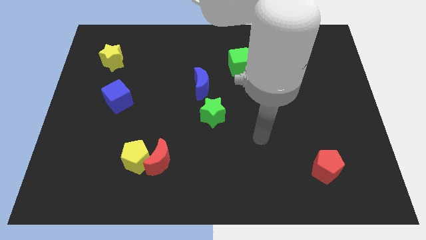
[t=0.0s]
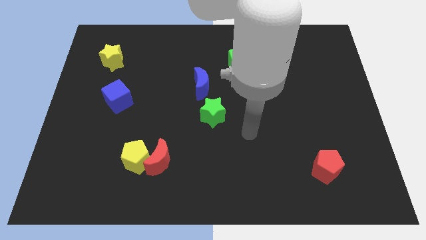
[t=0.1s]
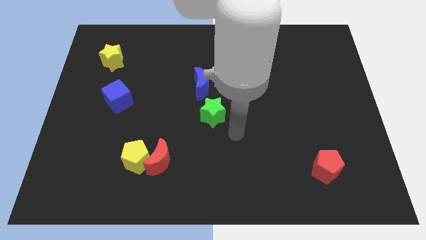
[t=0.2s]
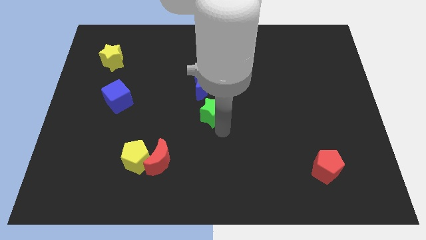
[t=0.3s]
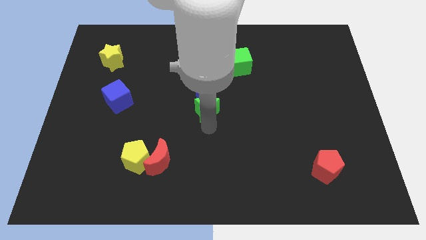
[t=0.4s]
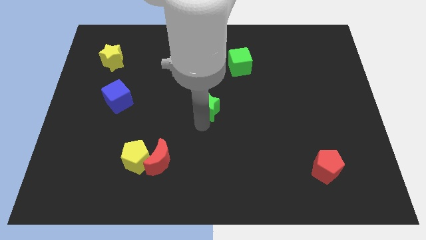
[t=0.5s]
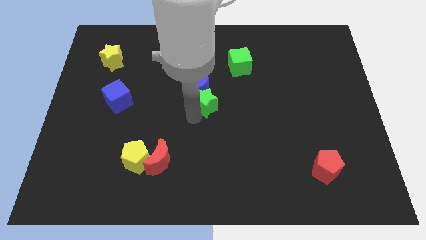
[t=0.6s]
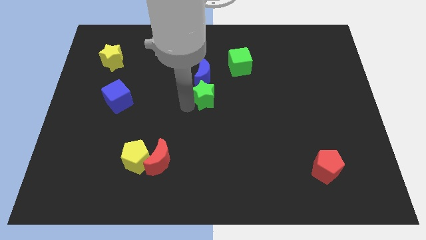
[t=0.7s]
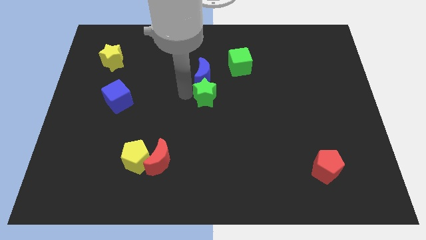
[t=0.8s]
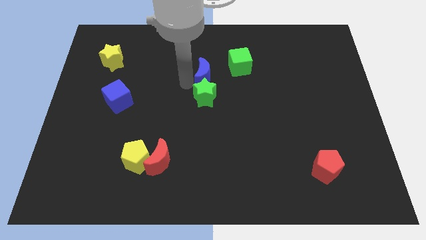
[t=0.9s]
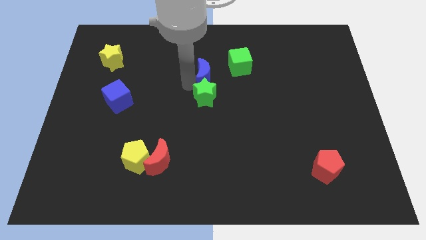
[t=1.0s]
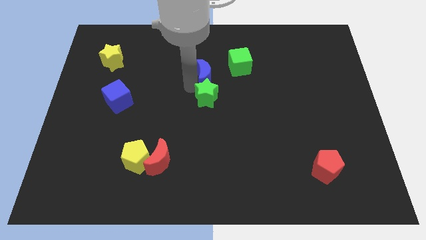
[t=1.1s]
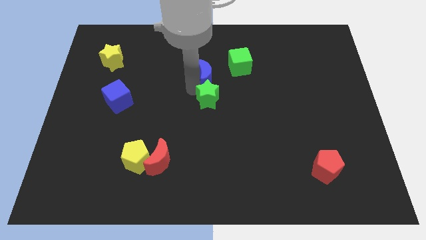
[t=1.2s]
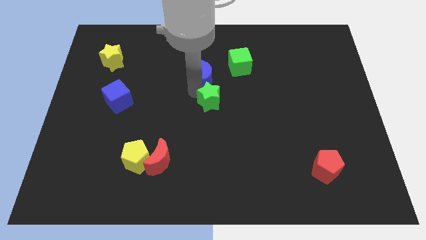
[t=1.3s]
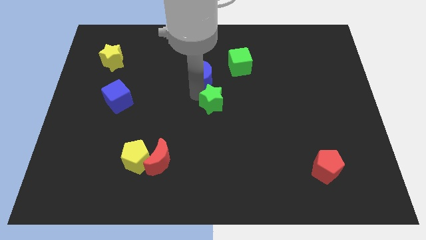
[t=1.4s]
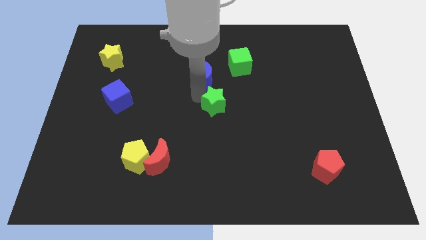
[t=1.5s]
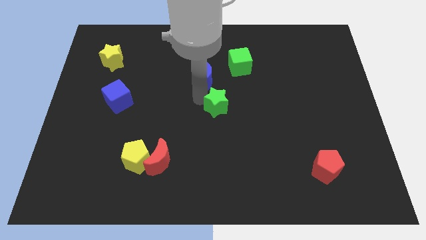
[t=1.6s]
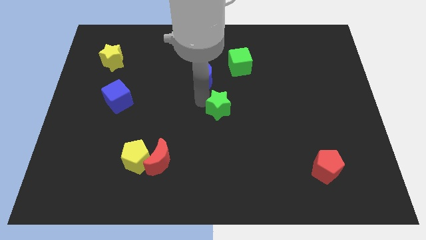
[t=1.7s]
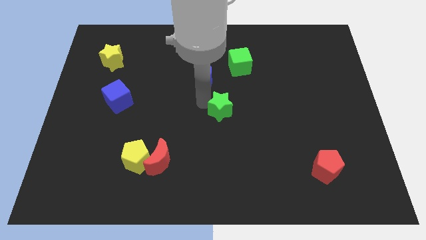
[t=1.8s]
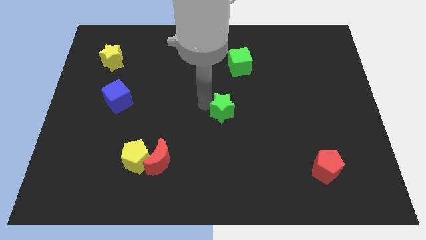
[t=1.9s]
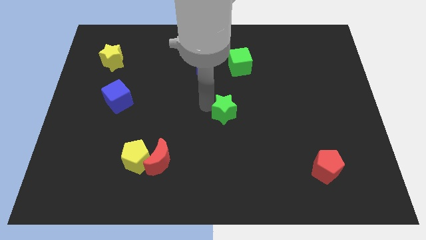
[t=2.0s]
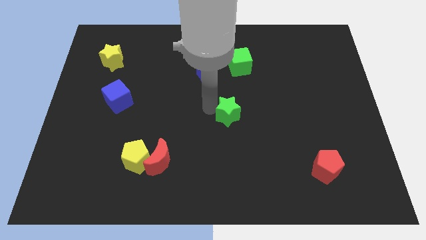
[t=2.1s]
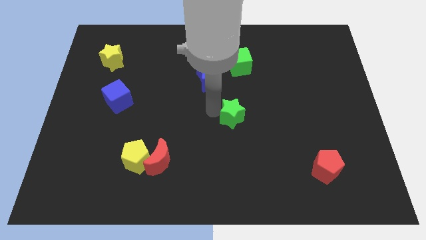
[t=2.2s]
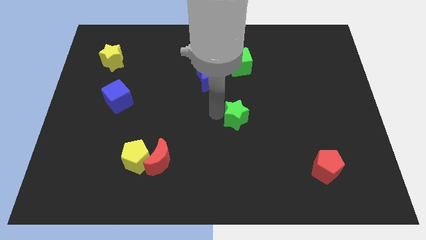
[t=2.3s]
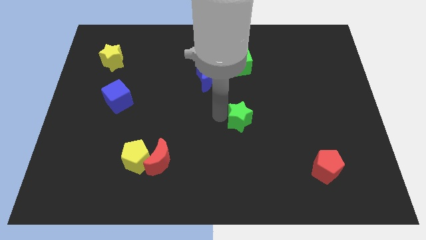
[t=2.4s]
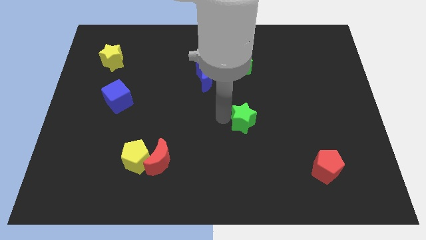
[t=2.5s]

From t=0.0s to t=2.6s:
push the green star a bit to the right

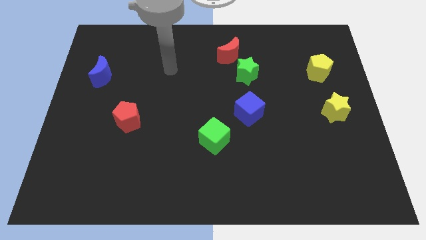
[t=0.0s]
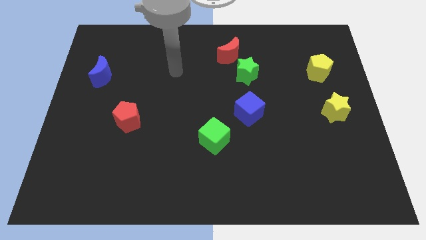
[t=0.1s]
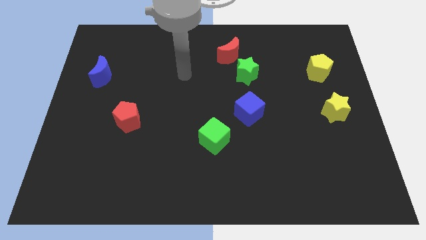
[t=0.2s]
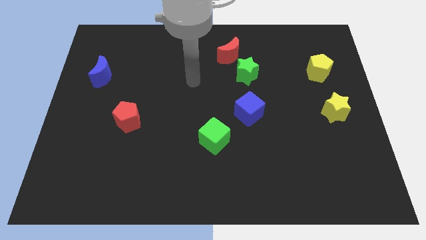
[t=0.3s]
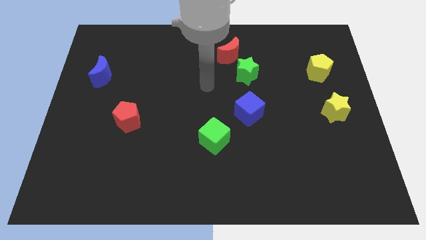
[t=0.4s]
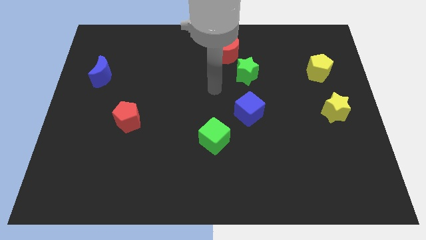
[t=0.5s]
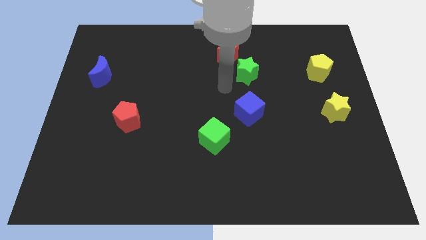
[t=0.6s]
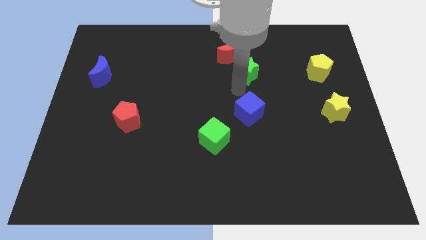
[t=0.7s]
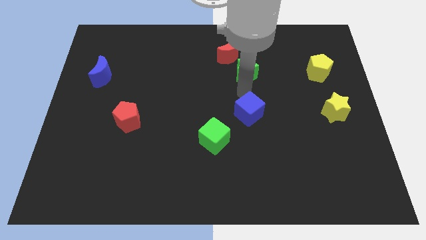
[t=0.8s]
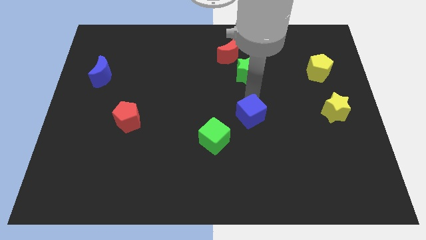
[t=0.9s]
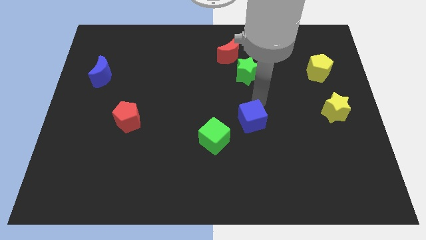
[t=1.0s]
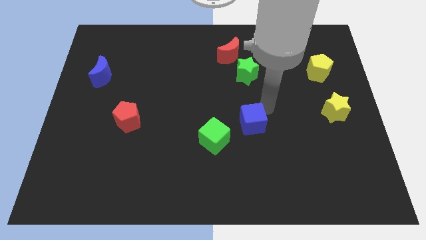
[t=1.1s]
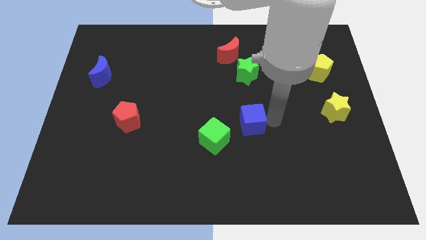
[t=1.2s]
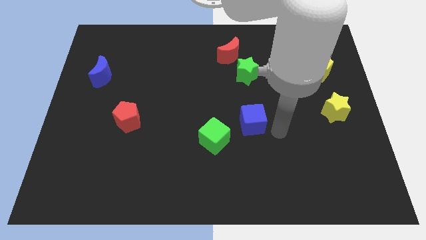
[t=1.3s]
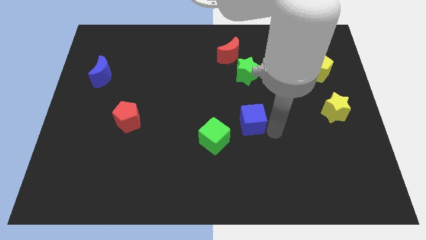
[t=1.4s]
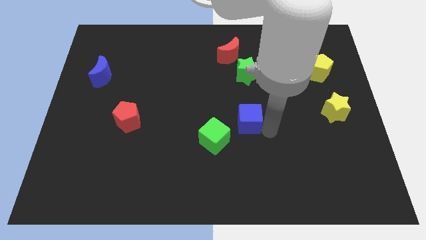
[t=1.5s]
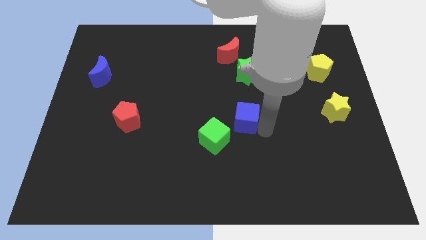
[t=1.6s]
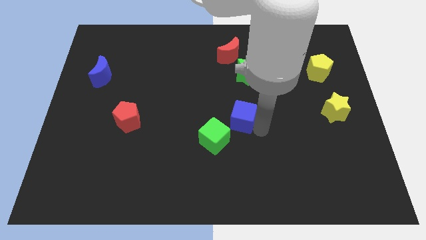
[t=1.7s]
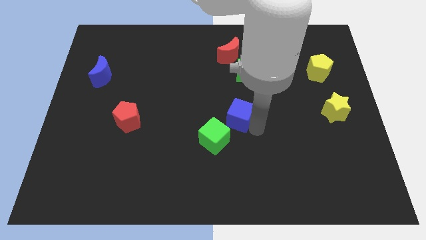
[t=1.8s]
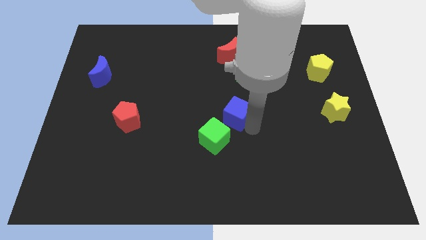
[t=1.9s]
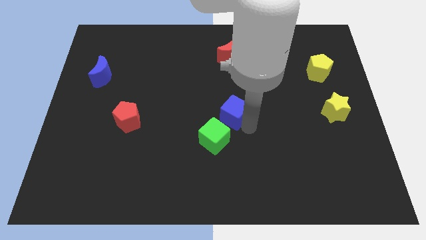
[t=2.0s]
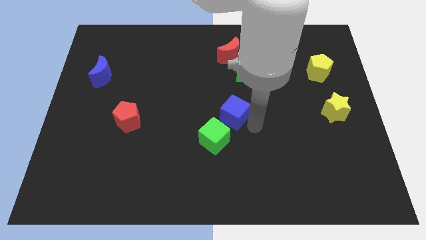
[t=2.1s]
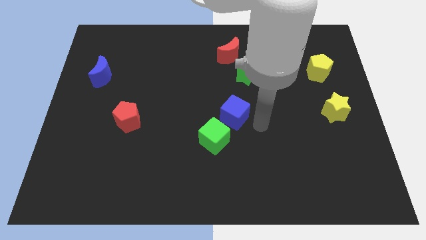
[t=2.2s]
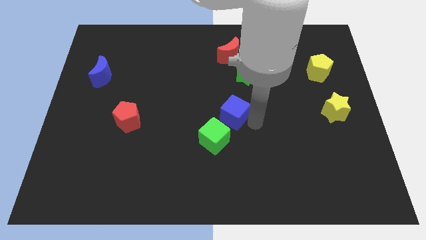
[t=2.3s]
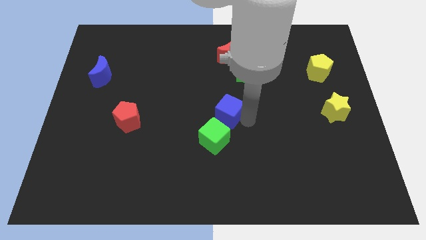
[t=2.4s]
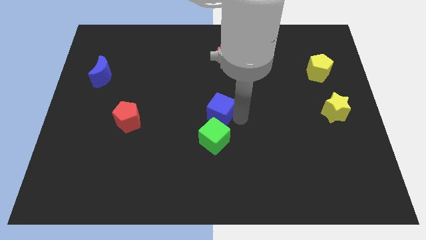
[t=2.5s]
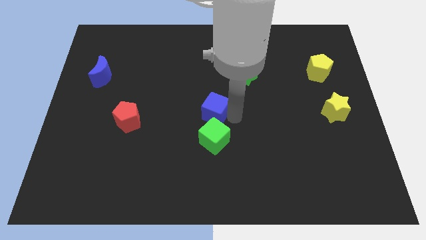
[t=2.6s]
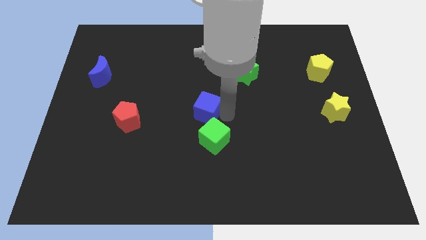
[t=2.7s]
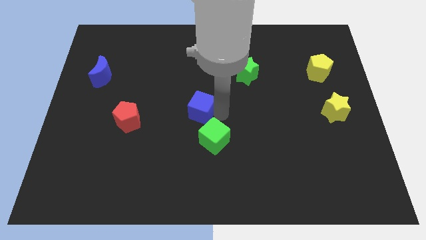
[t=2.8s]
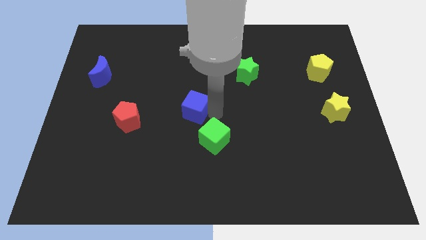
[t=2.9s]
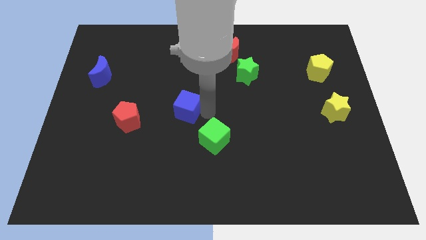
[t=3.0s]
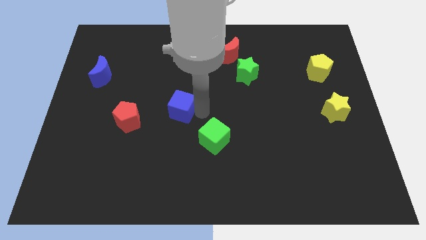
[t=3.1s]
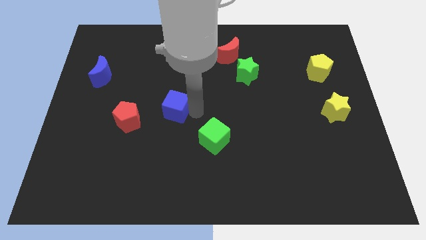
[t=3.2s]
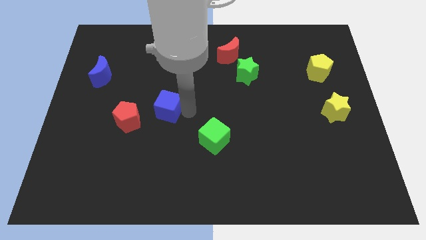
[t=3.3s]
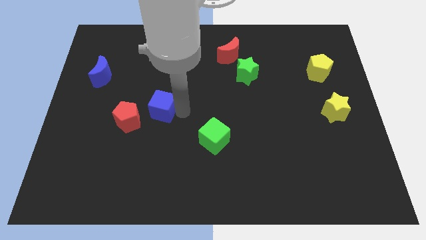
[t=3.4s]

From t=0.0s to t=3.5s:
move the blue cube to the left

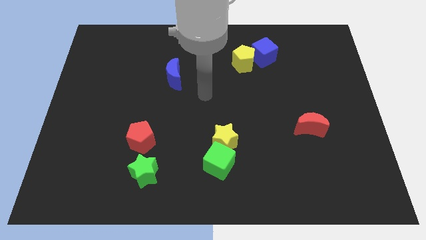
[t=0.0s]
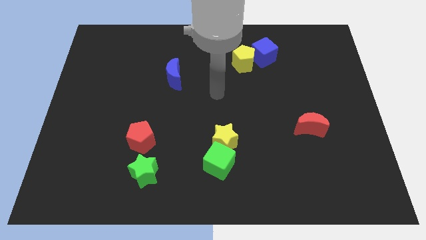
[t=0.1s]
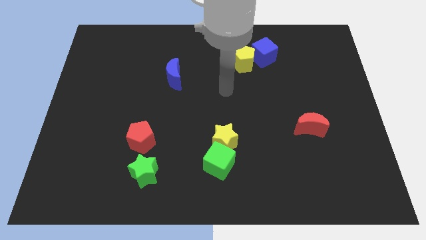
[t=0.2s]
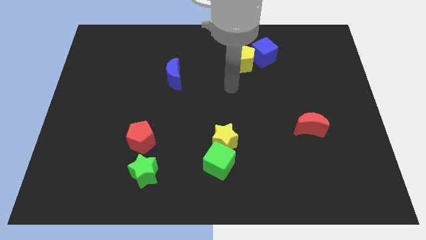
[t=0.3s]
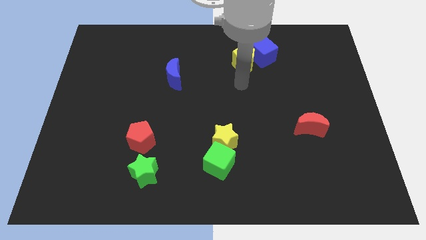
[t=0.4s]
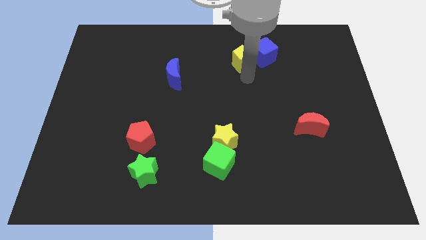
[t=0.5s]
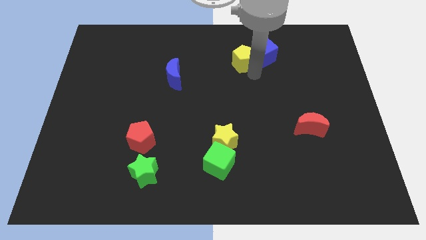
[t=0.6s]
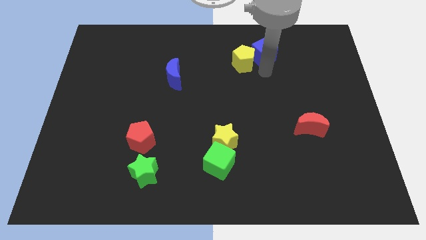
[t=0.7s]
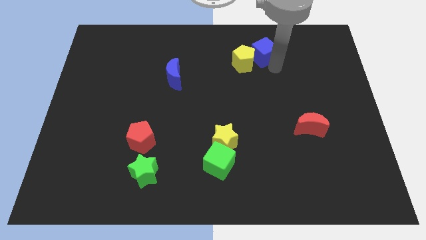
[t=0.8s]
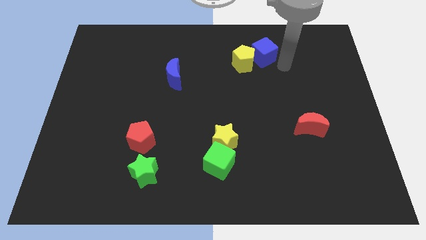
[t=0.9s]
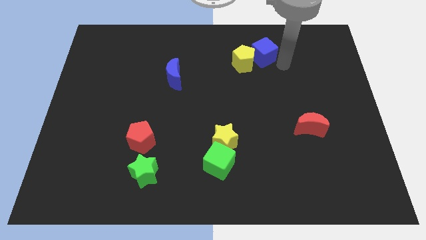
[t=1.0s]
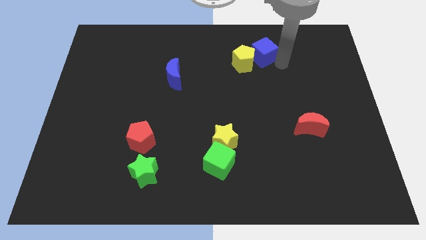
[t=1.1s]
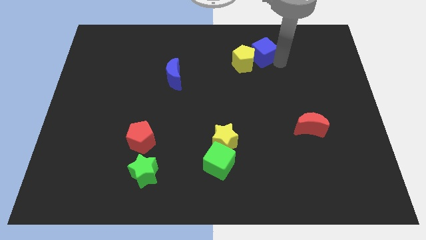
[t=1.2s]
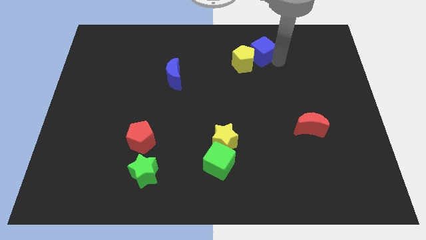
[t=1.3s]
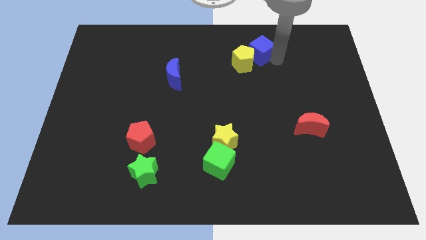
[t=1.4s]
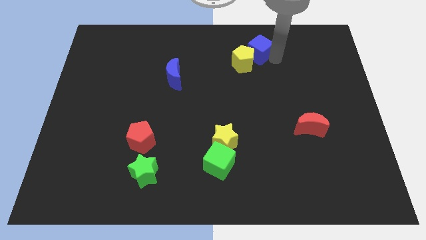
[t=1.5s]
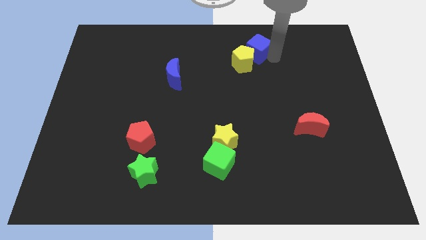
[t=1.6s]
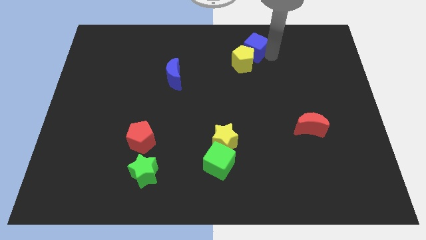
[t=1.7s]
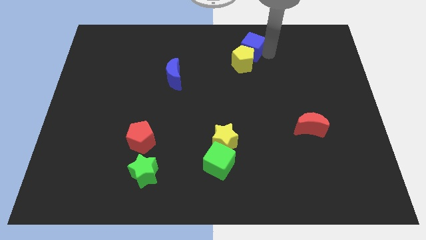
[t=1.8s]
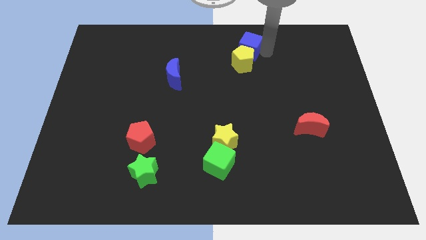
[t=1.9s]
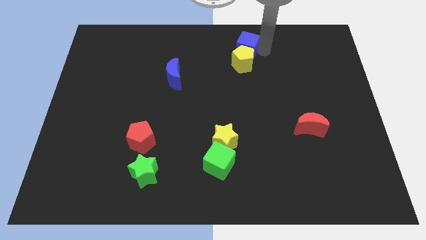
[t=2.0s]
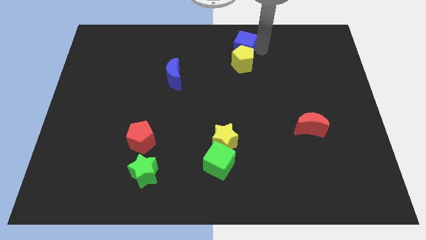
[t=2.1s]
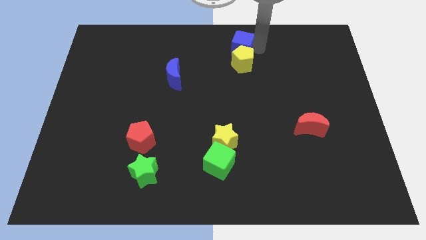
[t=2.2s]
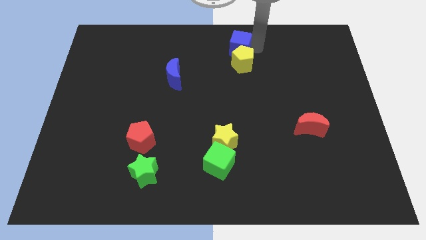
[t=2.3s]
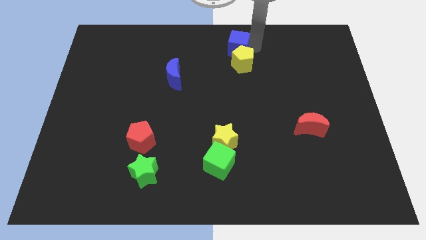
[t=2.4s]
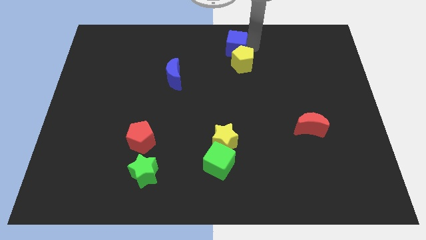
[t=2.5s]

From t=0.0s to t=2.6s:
move the blue cube somewhat to the left
